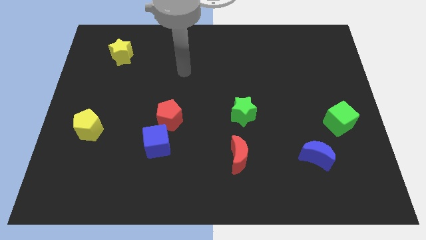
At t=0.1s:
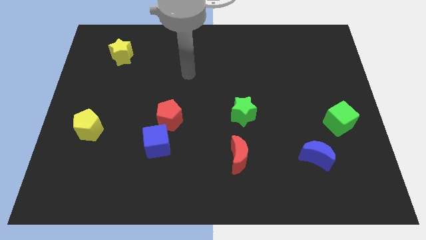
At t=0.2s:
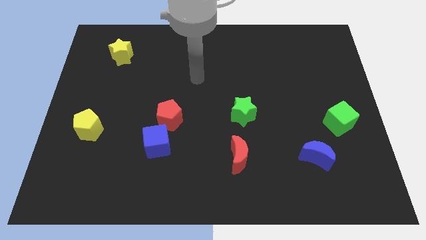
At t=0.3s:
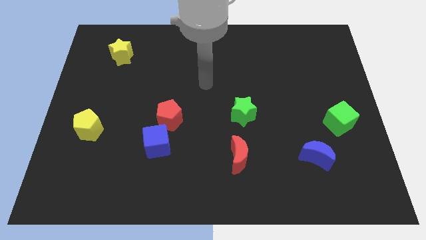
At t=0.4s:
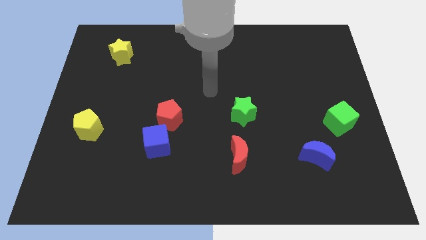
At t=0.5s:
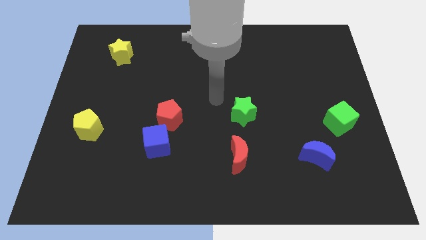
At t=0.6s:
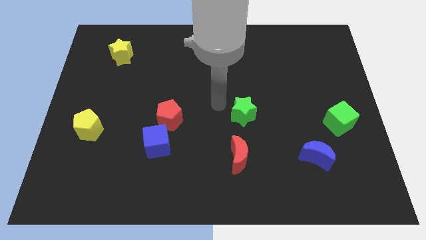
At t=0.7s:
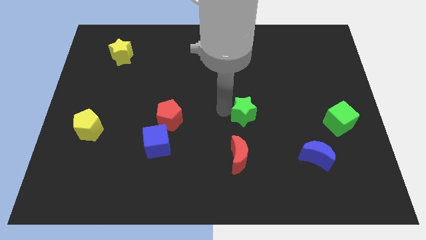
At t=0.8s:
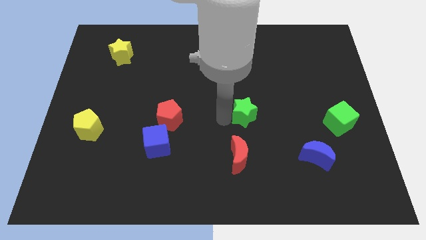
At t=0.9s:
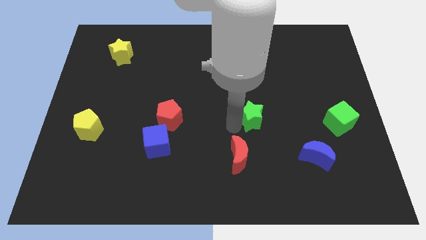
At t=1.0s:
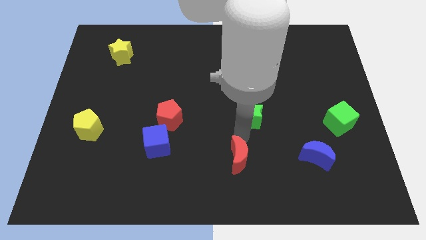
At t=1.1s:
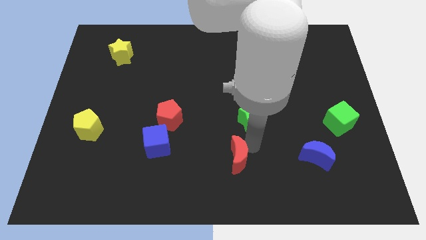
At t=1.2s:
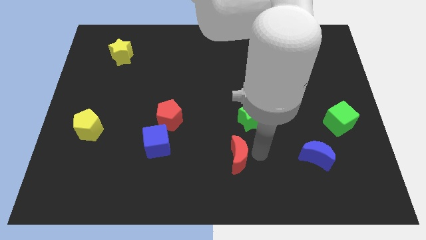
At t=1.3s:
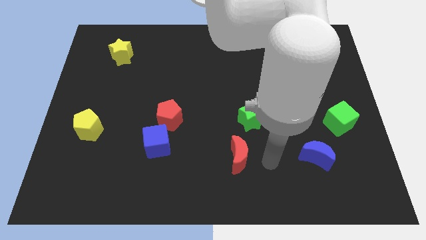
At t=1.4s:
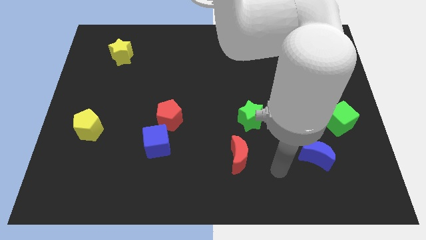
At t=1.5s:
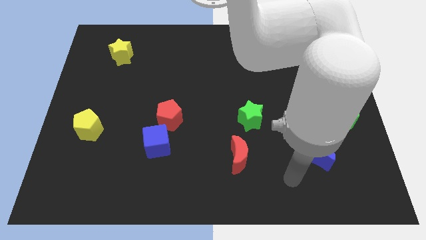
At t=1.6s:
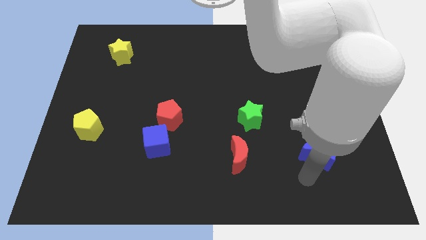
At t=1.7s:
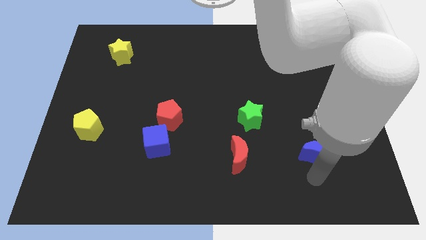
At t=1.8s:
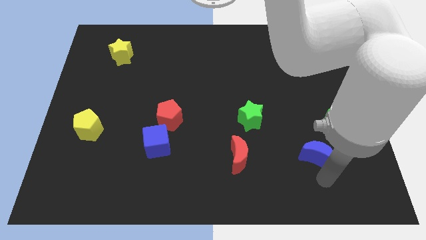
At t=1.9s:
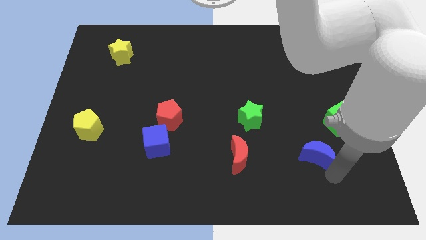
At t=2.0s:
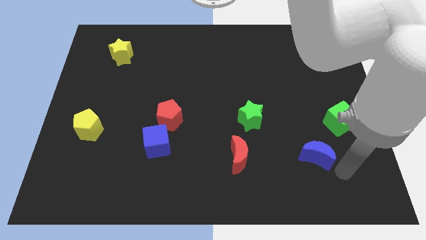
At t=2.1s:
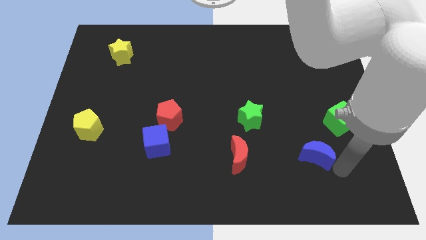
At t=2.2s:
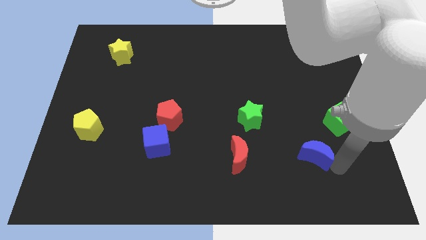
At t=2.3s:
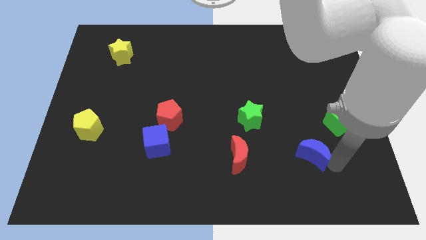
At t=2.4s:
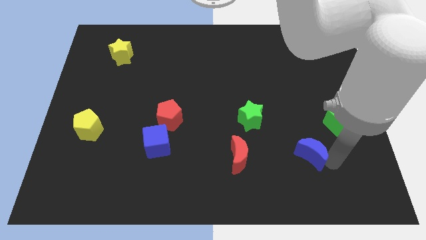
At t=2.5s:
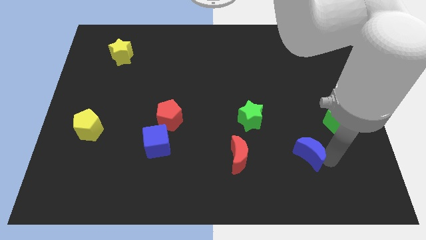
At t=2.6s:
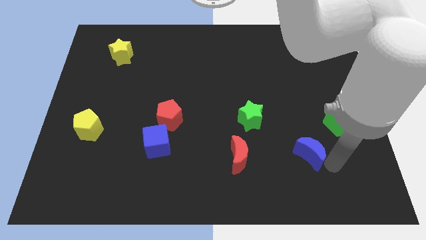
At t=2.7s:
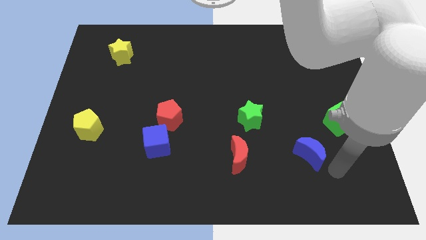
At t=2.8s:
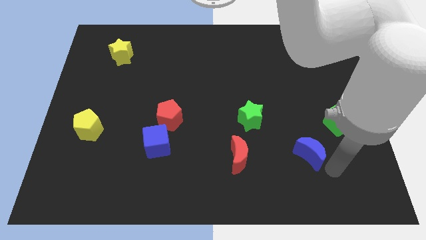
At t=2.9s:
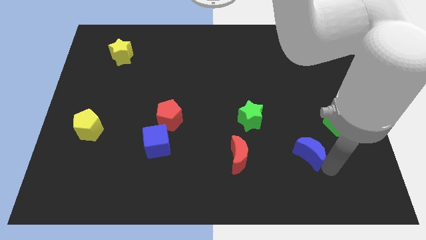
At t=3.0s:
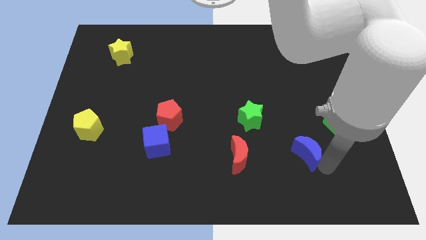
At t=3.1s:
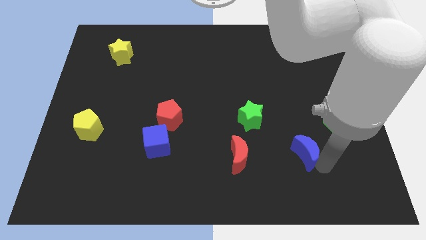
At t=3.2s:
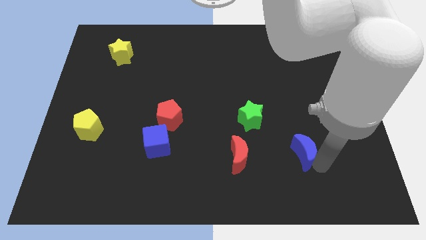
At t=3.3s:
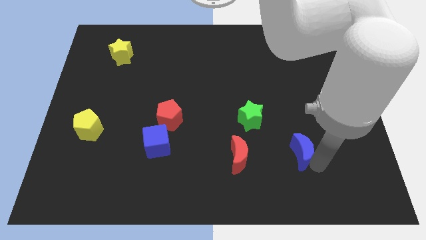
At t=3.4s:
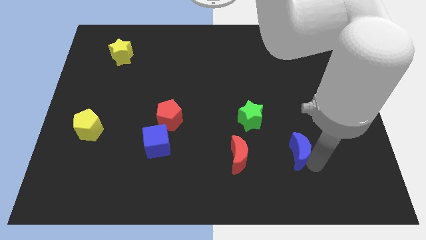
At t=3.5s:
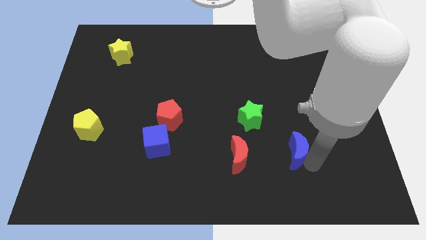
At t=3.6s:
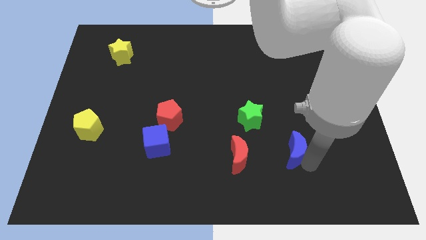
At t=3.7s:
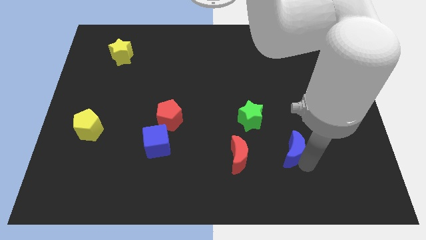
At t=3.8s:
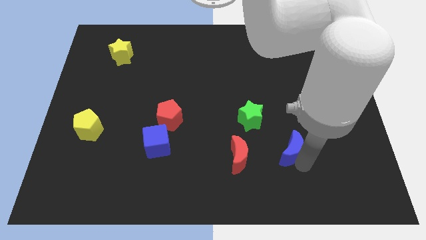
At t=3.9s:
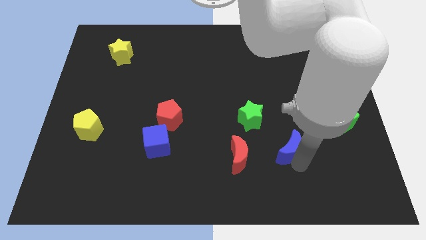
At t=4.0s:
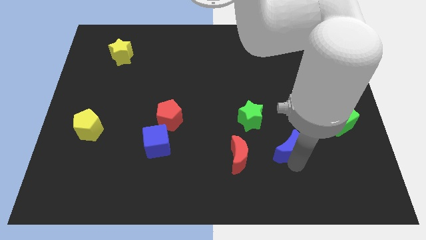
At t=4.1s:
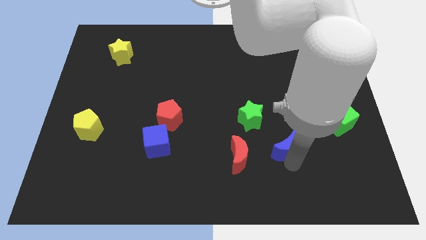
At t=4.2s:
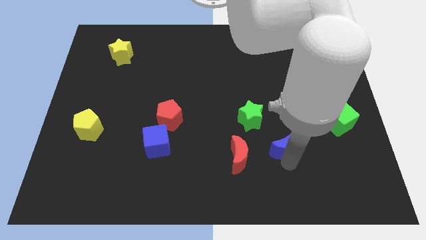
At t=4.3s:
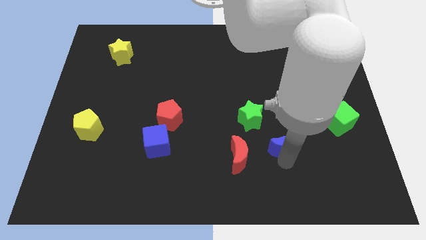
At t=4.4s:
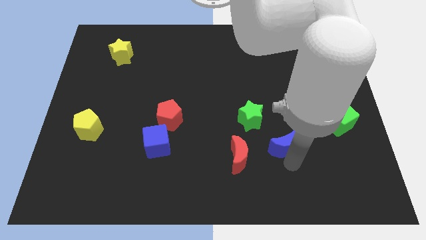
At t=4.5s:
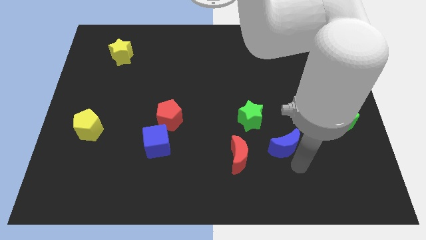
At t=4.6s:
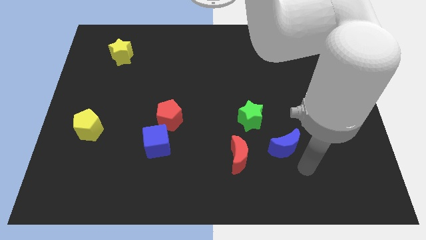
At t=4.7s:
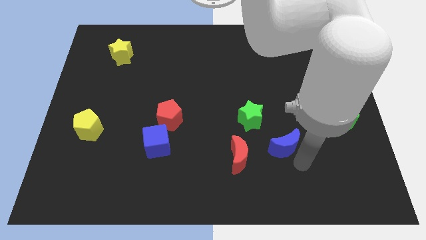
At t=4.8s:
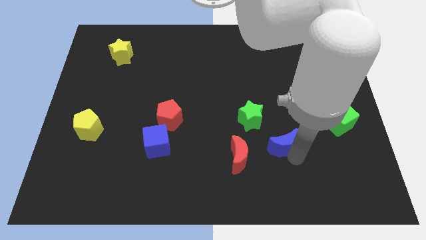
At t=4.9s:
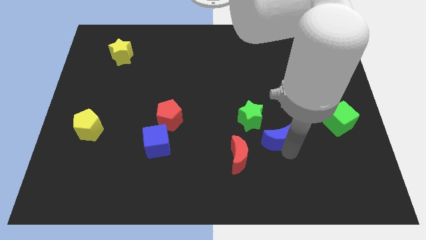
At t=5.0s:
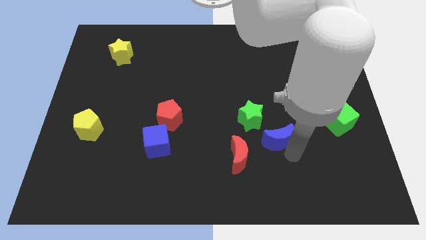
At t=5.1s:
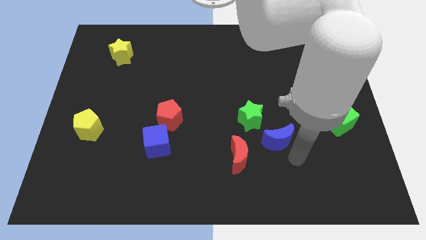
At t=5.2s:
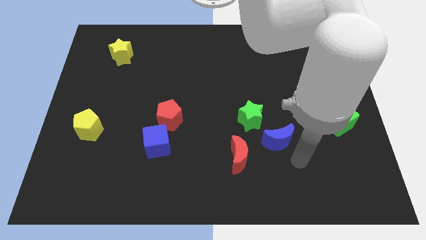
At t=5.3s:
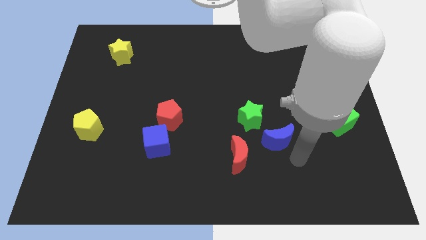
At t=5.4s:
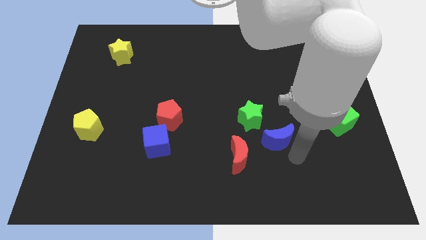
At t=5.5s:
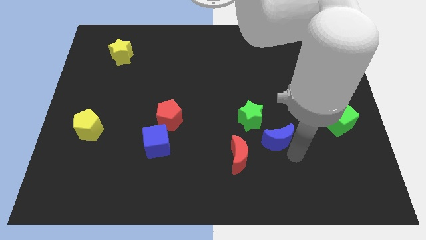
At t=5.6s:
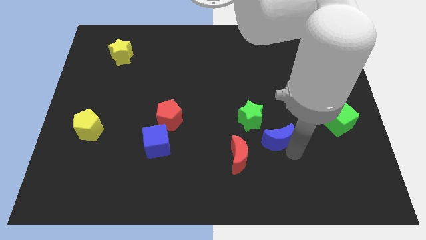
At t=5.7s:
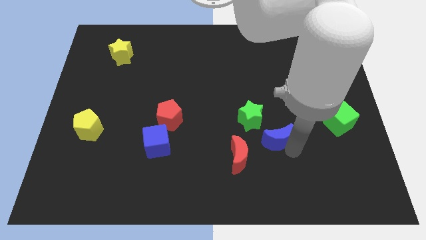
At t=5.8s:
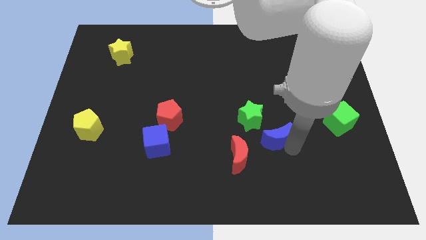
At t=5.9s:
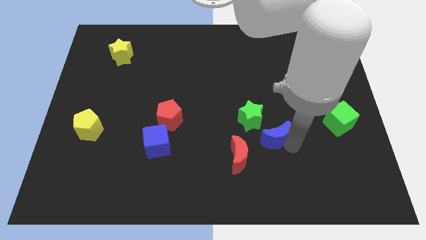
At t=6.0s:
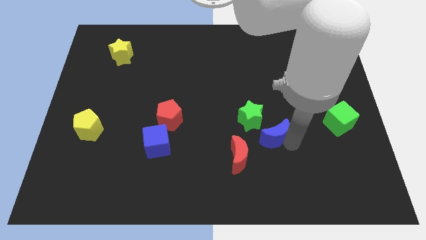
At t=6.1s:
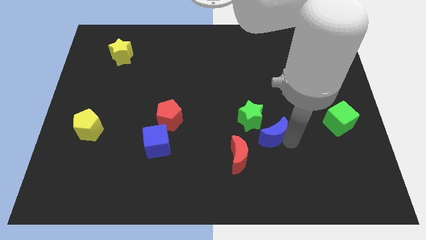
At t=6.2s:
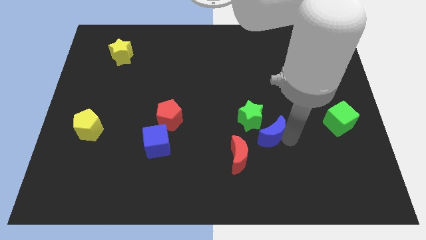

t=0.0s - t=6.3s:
put the blue moon to the green star

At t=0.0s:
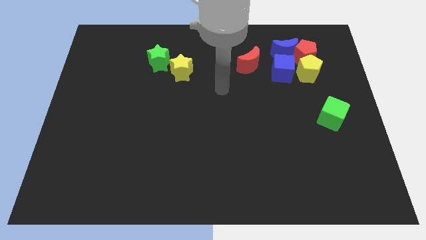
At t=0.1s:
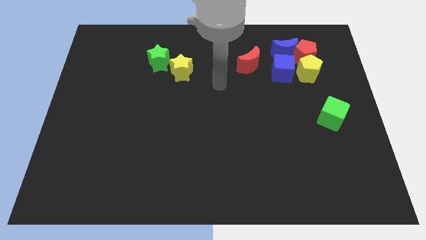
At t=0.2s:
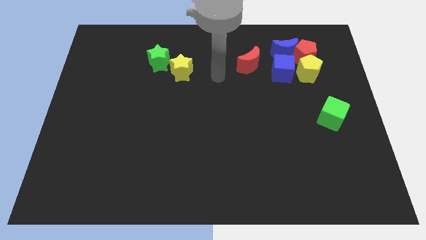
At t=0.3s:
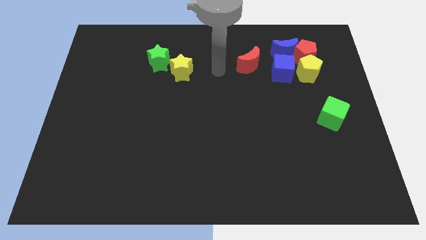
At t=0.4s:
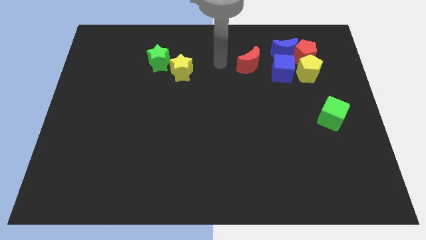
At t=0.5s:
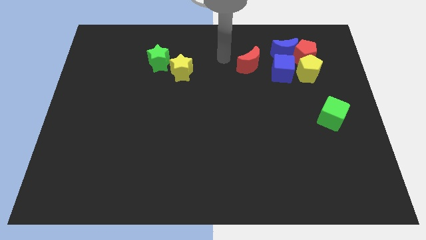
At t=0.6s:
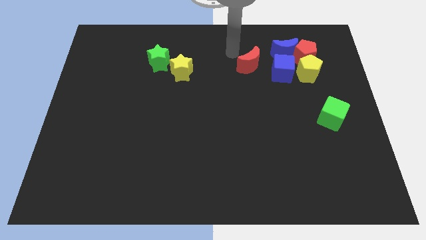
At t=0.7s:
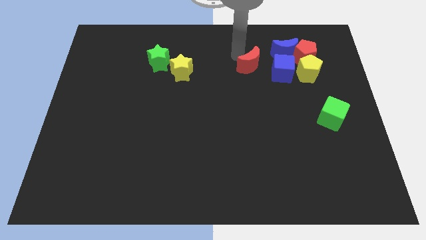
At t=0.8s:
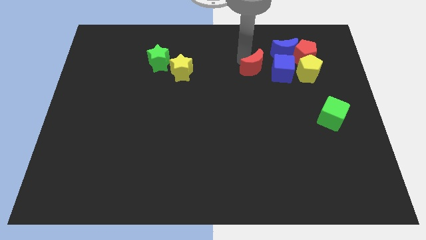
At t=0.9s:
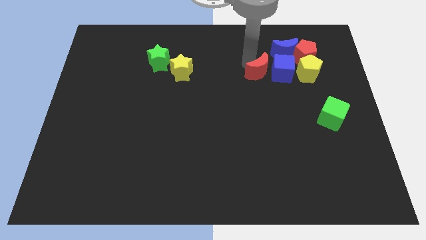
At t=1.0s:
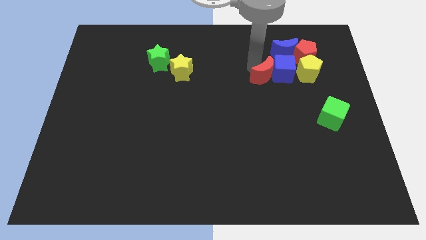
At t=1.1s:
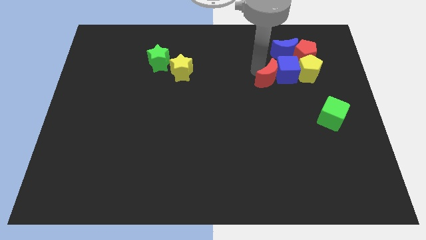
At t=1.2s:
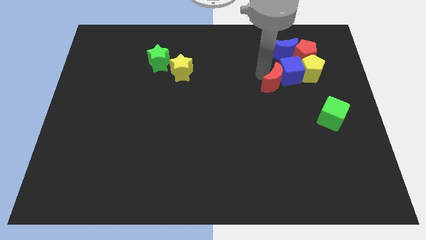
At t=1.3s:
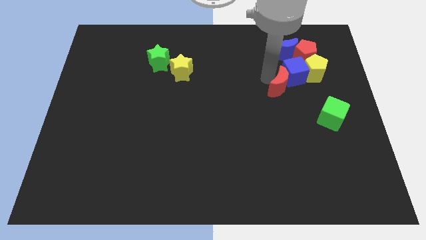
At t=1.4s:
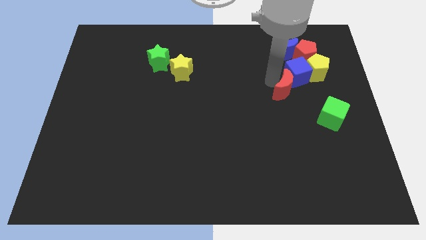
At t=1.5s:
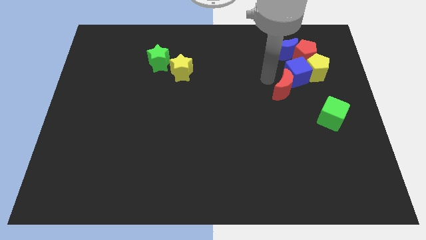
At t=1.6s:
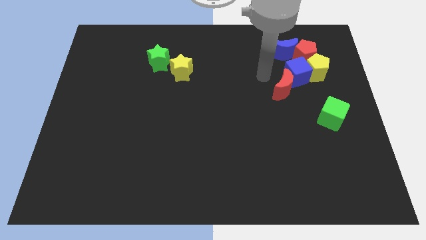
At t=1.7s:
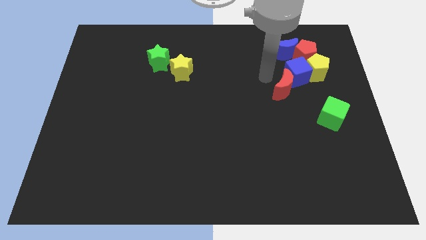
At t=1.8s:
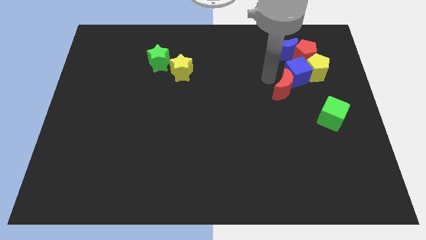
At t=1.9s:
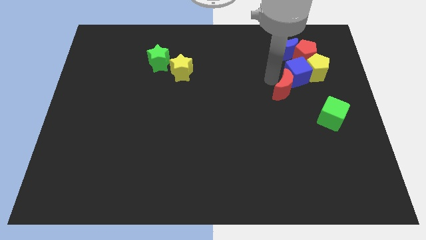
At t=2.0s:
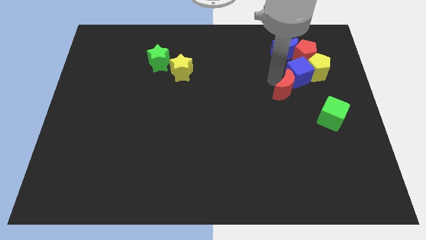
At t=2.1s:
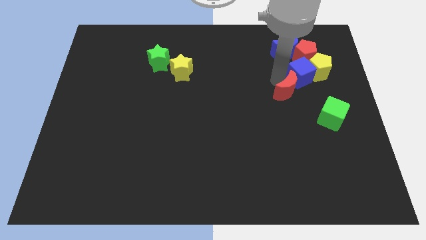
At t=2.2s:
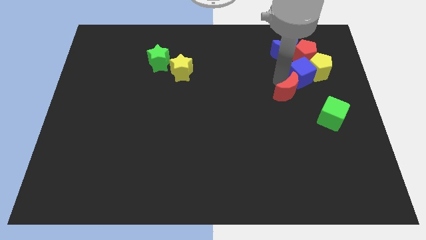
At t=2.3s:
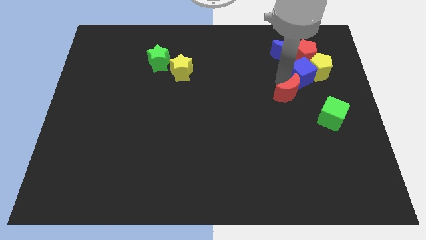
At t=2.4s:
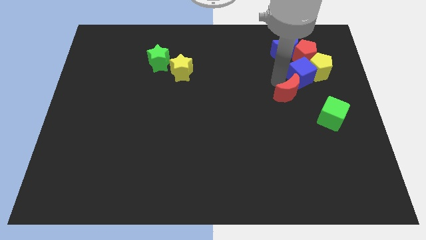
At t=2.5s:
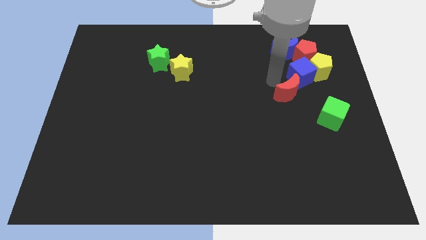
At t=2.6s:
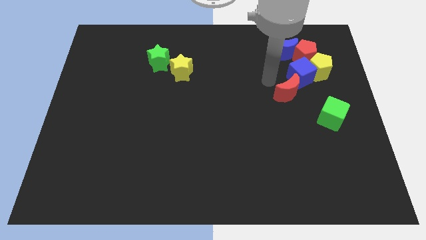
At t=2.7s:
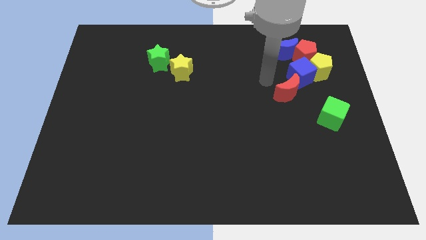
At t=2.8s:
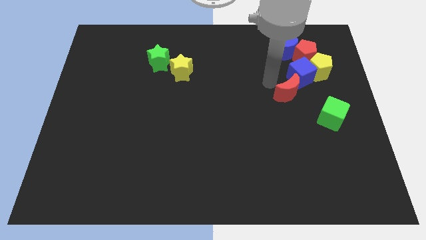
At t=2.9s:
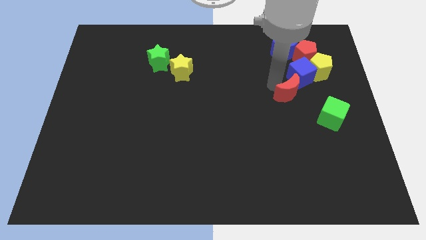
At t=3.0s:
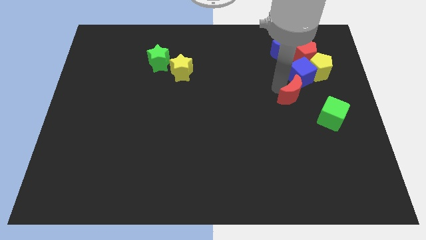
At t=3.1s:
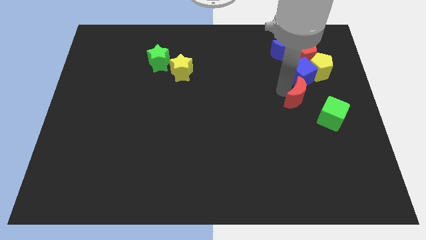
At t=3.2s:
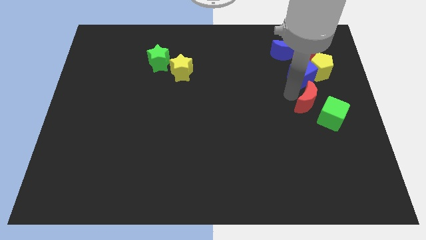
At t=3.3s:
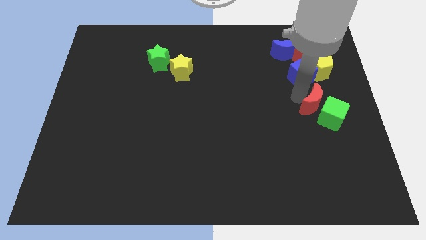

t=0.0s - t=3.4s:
put the red moon next to the green cube
